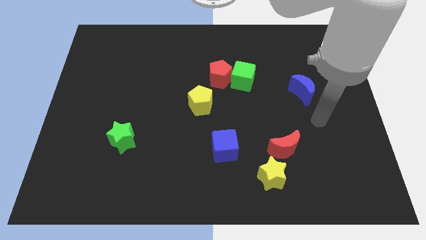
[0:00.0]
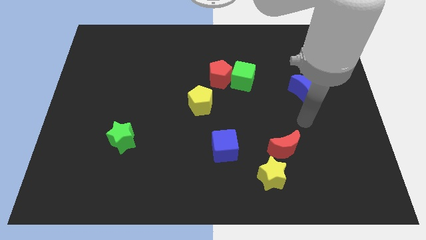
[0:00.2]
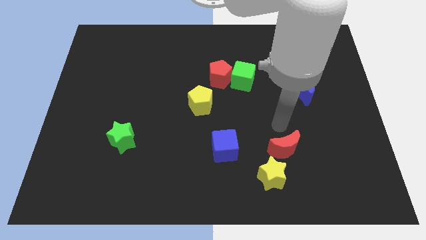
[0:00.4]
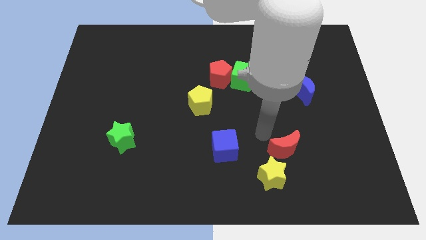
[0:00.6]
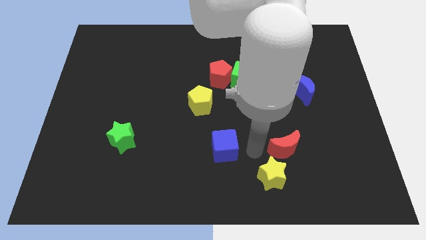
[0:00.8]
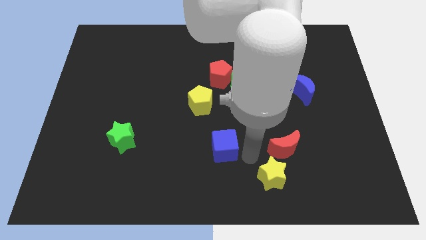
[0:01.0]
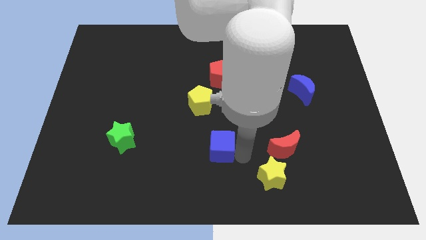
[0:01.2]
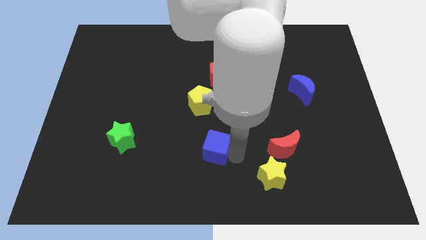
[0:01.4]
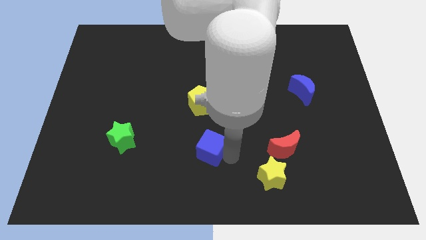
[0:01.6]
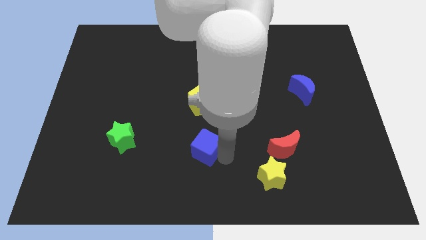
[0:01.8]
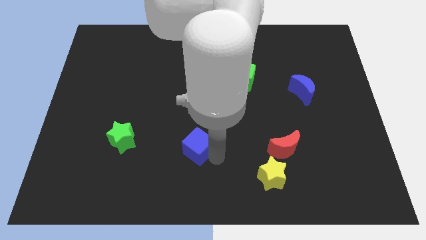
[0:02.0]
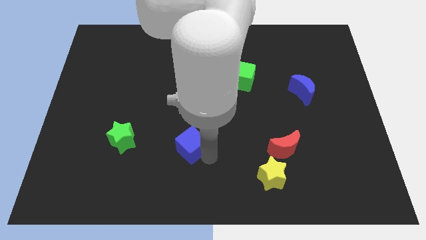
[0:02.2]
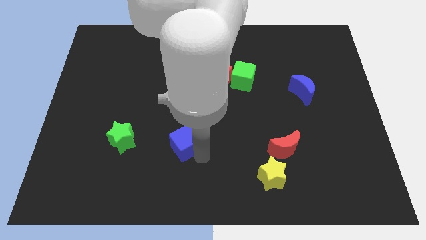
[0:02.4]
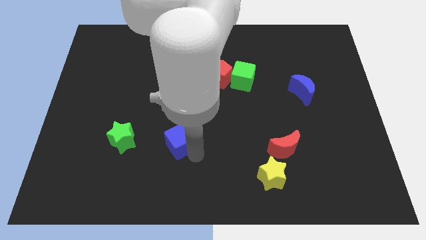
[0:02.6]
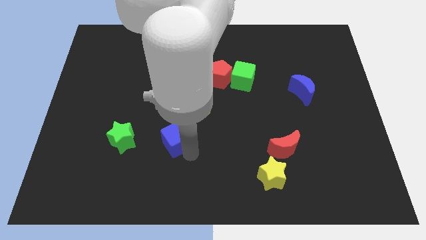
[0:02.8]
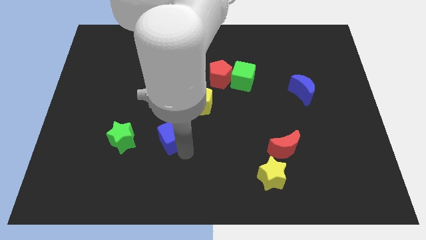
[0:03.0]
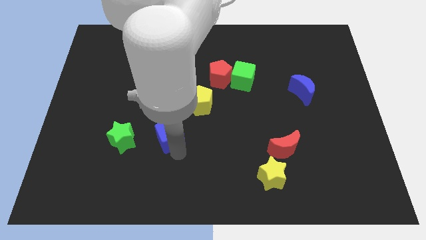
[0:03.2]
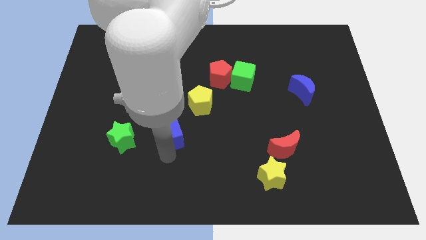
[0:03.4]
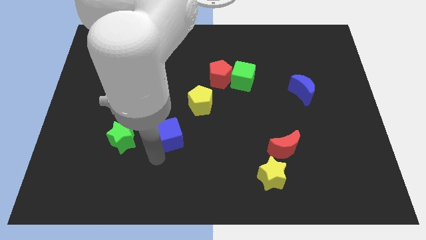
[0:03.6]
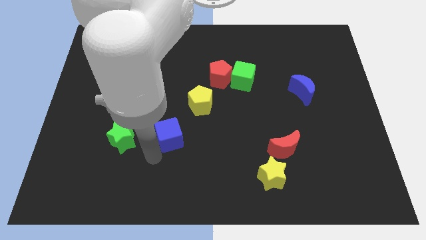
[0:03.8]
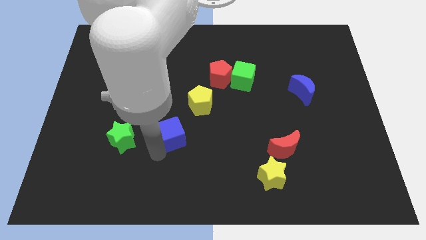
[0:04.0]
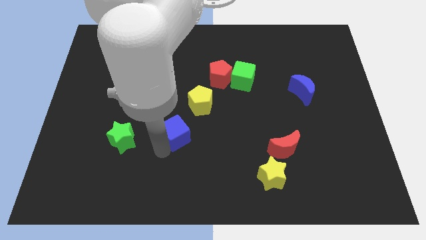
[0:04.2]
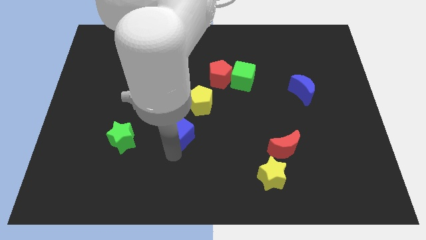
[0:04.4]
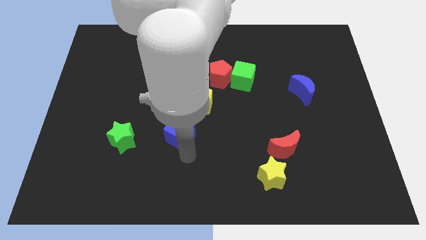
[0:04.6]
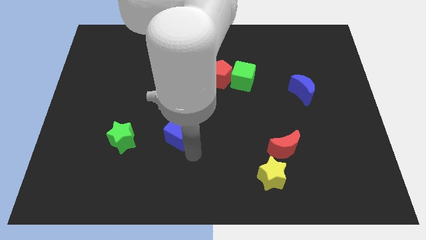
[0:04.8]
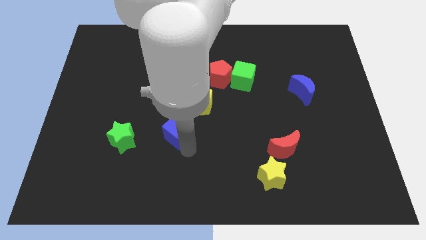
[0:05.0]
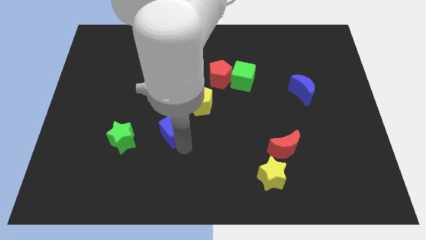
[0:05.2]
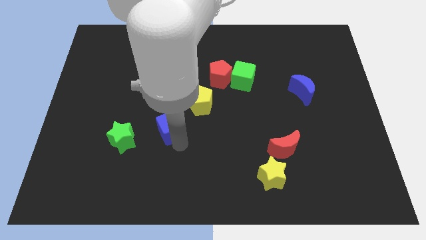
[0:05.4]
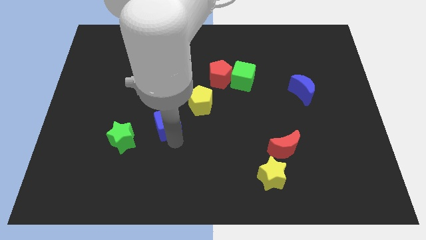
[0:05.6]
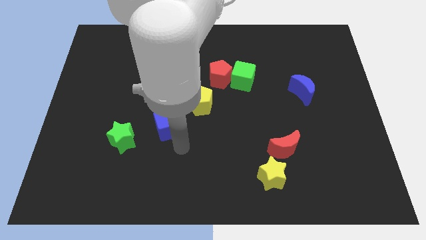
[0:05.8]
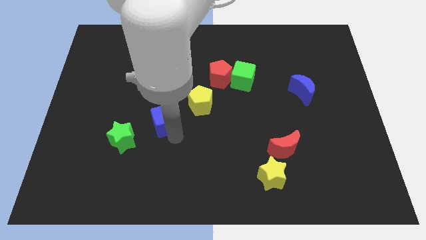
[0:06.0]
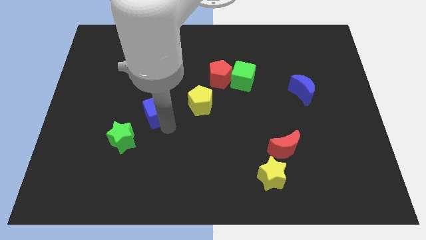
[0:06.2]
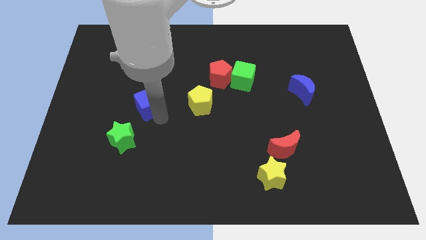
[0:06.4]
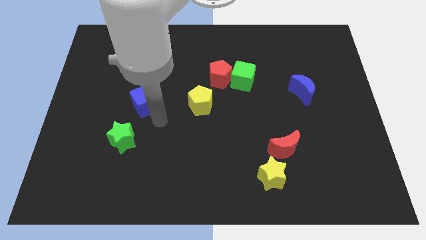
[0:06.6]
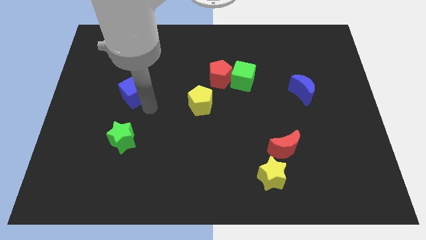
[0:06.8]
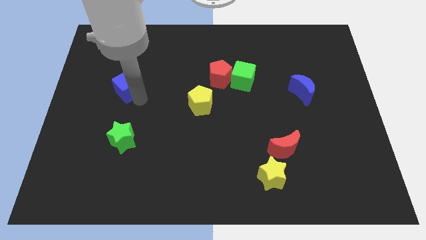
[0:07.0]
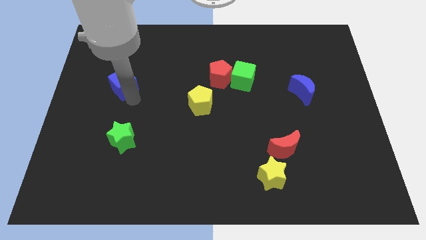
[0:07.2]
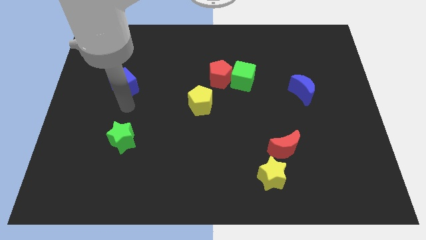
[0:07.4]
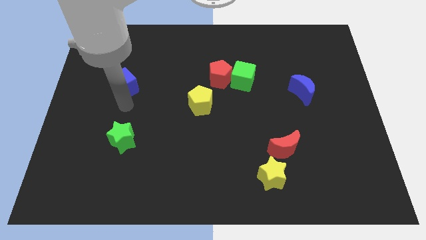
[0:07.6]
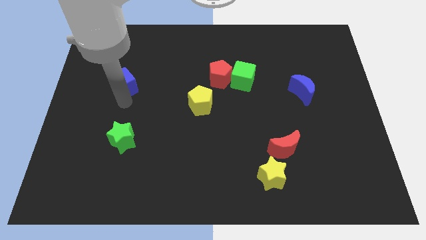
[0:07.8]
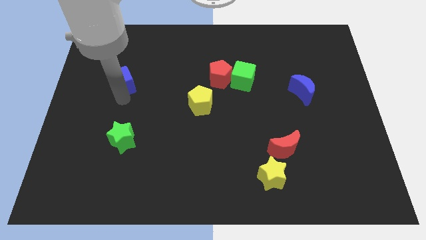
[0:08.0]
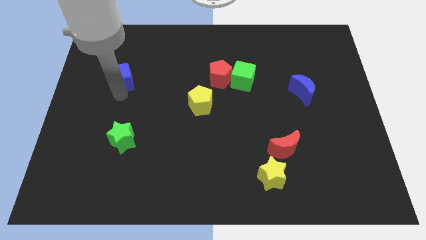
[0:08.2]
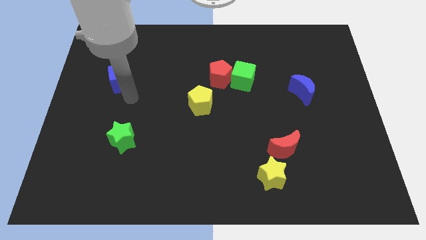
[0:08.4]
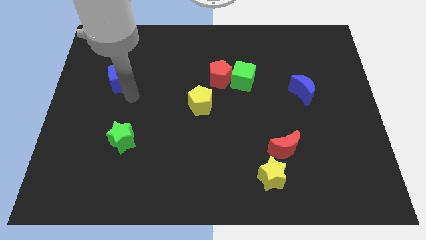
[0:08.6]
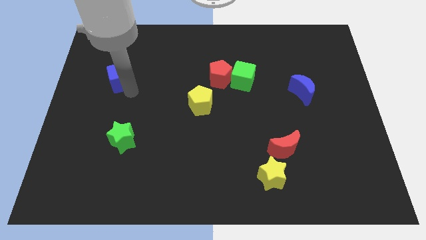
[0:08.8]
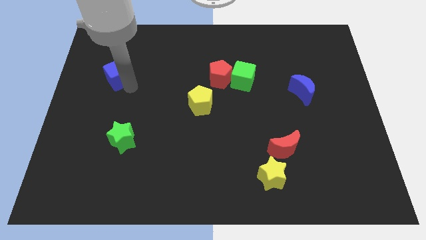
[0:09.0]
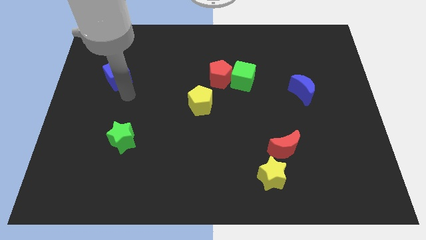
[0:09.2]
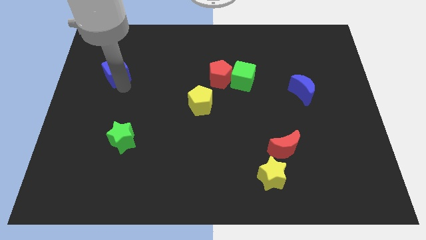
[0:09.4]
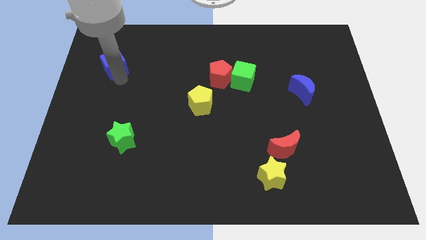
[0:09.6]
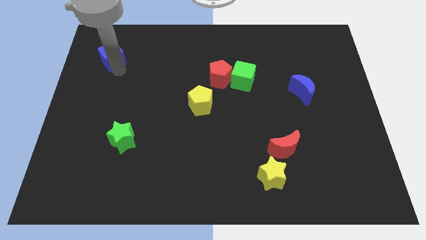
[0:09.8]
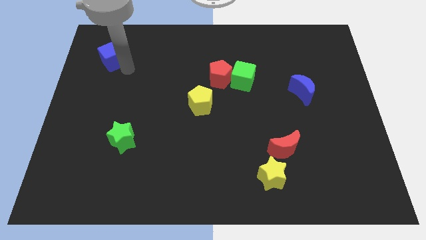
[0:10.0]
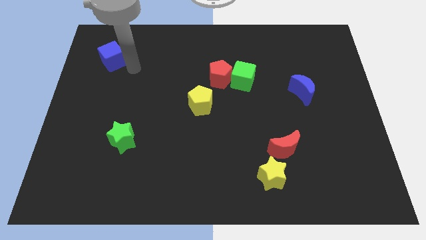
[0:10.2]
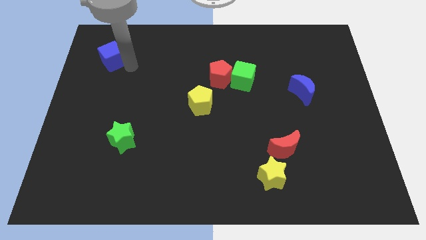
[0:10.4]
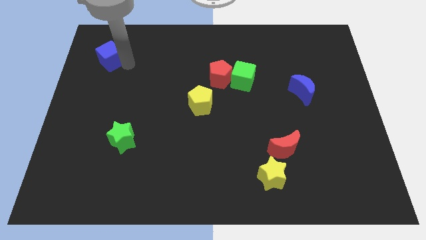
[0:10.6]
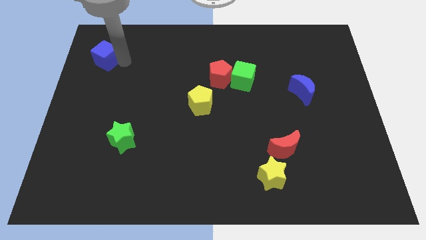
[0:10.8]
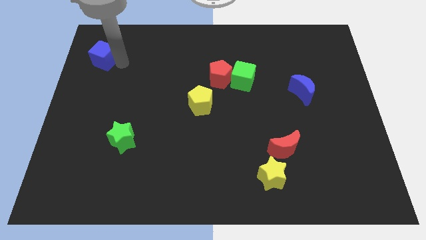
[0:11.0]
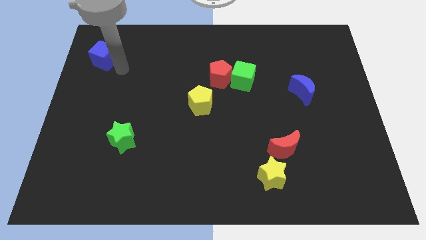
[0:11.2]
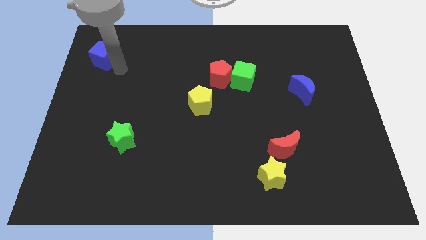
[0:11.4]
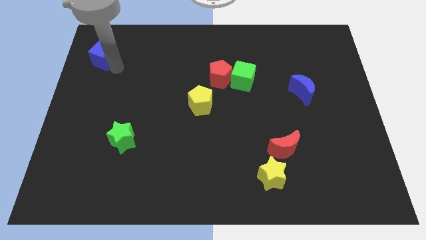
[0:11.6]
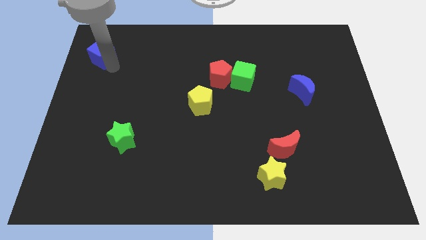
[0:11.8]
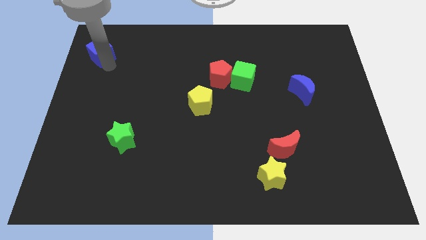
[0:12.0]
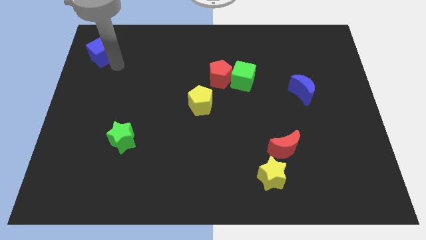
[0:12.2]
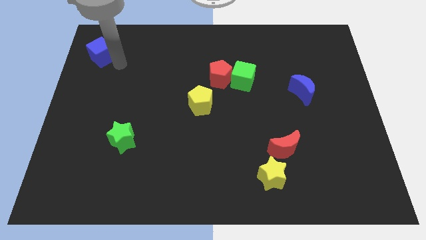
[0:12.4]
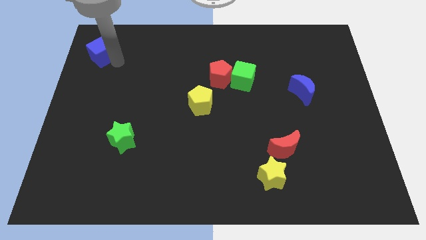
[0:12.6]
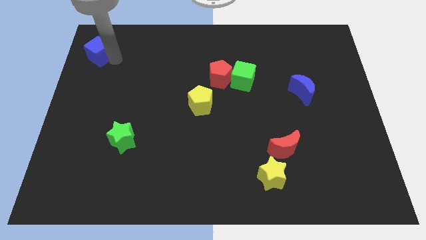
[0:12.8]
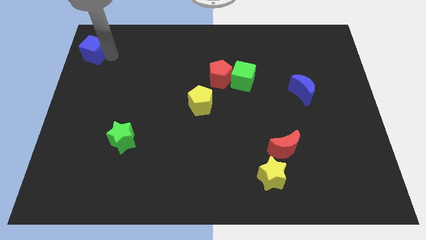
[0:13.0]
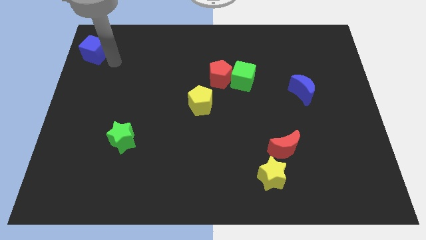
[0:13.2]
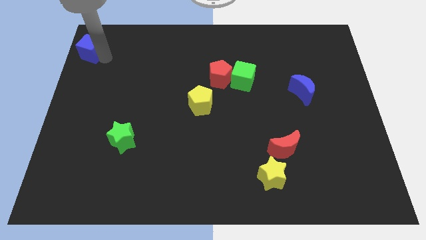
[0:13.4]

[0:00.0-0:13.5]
slide the blue cube to the top left corner
